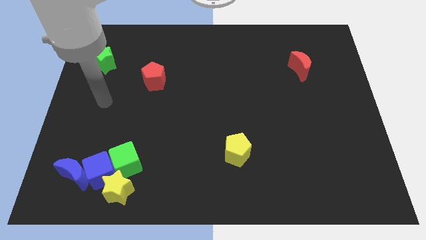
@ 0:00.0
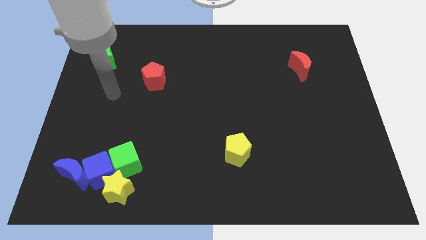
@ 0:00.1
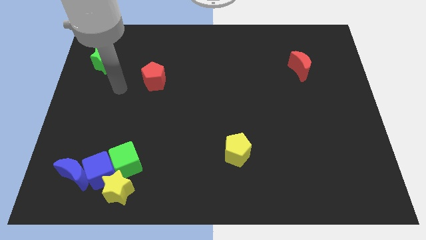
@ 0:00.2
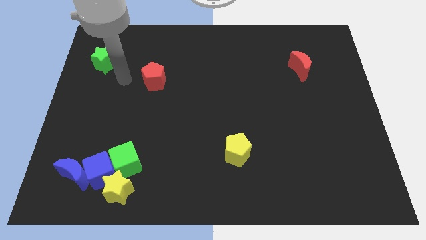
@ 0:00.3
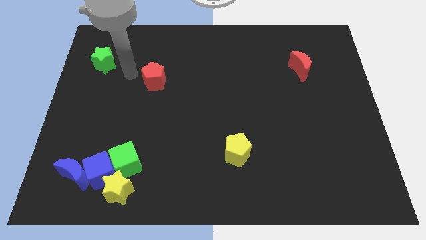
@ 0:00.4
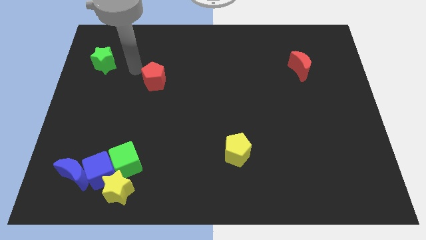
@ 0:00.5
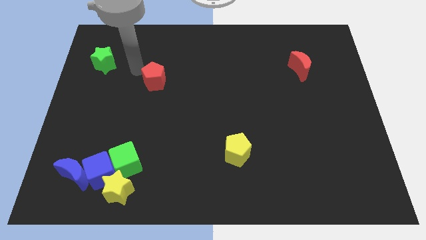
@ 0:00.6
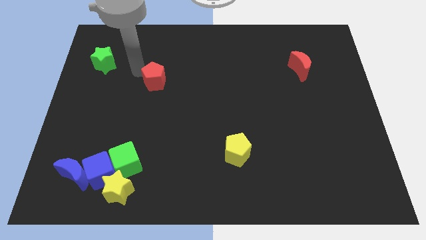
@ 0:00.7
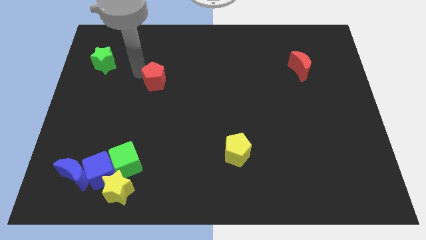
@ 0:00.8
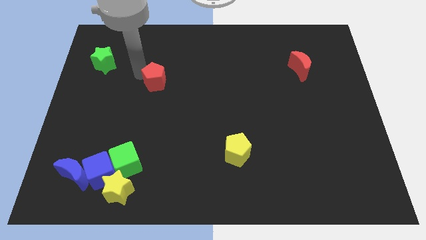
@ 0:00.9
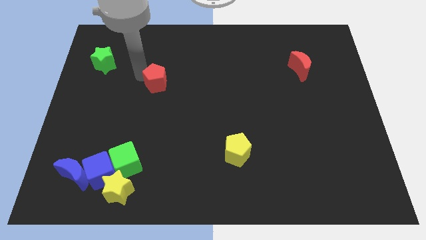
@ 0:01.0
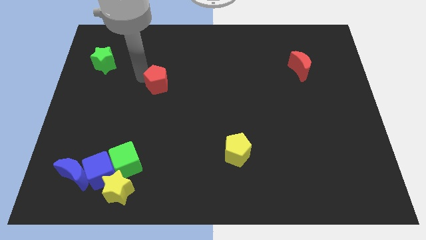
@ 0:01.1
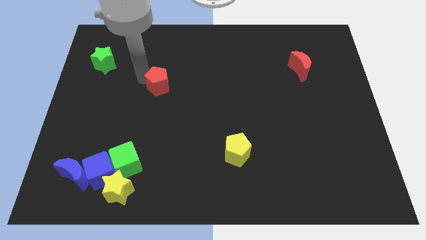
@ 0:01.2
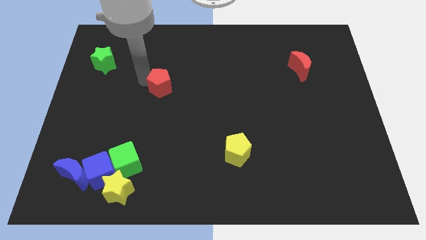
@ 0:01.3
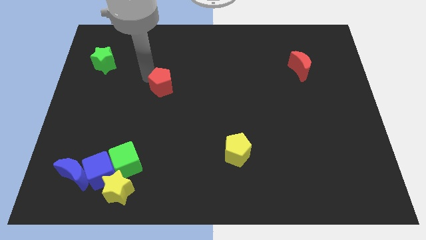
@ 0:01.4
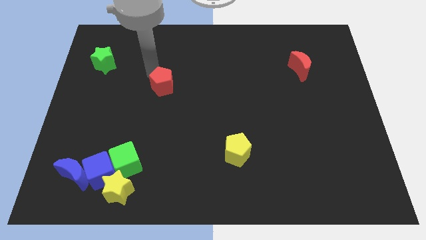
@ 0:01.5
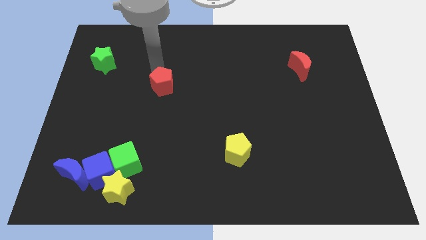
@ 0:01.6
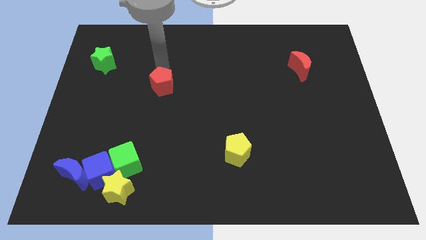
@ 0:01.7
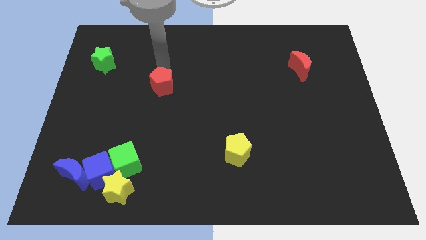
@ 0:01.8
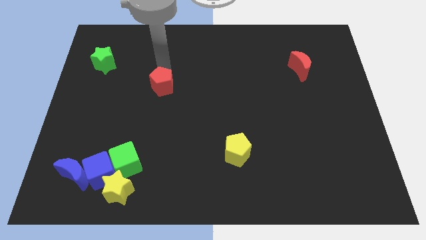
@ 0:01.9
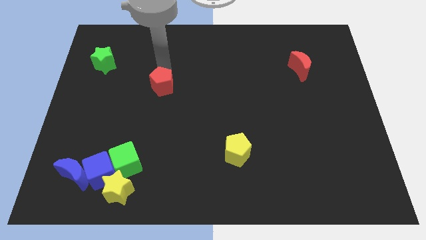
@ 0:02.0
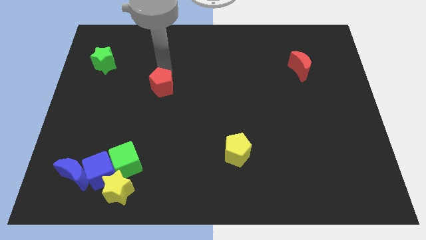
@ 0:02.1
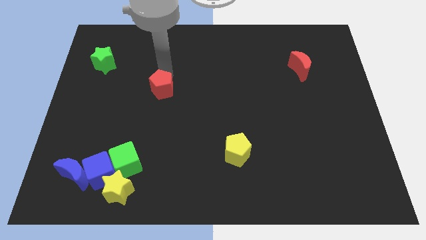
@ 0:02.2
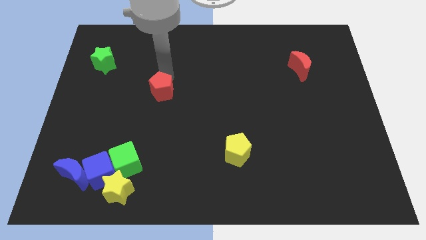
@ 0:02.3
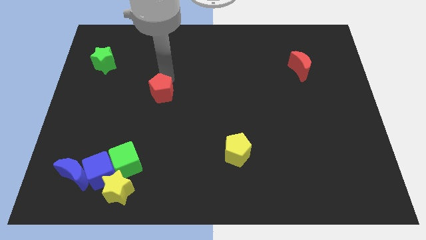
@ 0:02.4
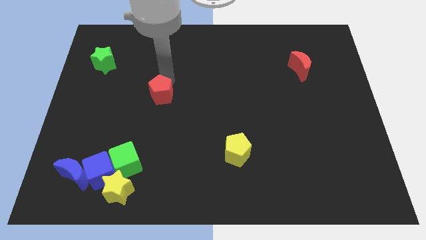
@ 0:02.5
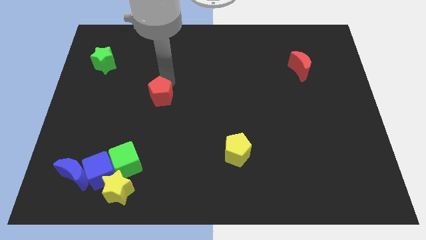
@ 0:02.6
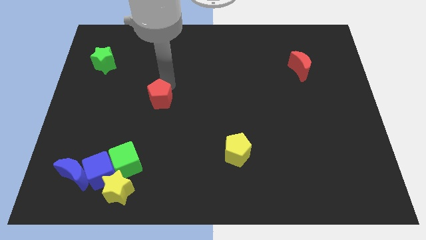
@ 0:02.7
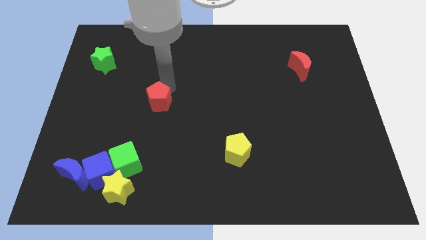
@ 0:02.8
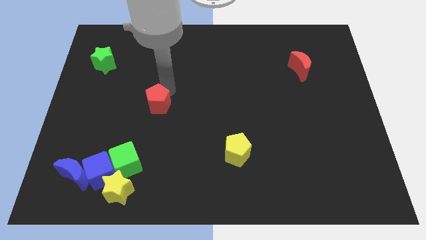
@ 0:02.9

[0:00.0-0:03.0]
move the red pentagon somewhat down

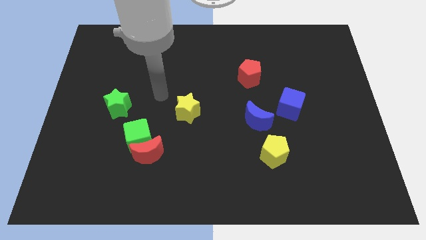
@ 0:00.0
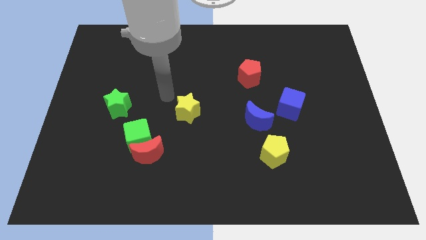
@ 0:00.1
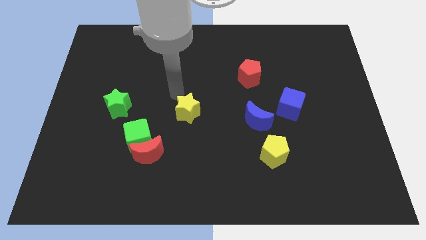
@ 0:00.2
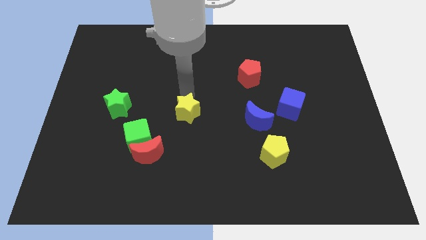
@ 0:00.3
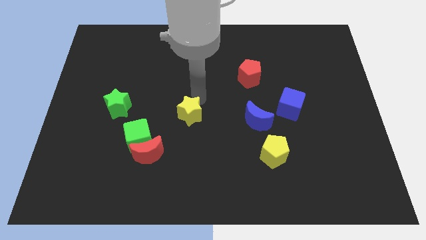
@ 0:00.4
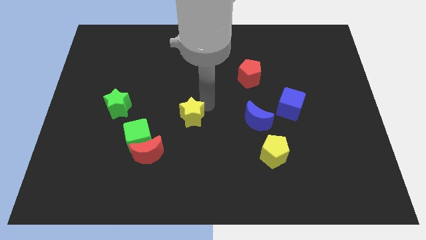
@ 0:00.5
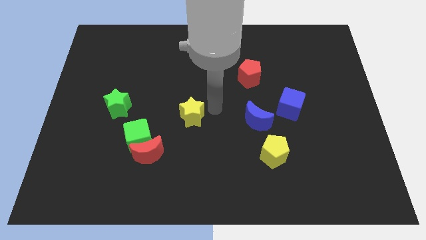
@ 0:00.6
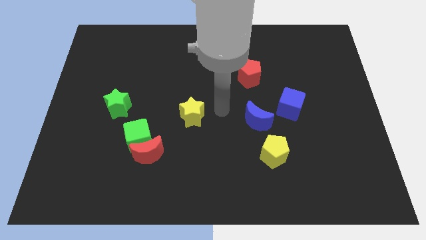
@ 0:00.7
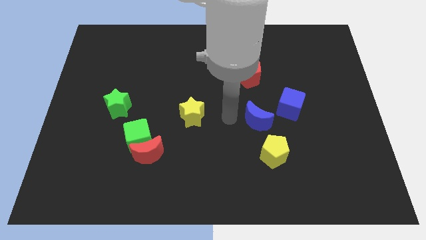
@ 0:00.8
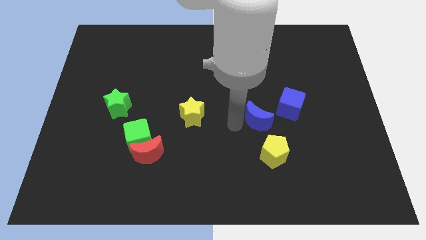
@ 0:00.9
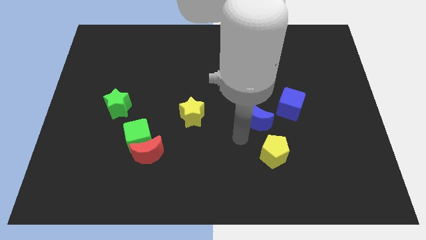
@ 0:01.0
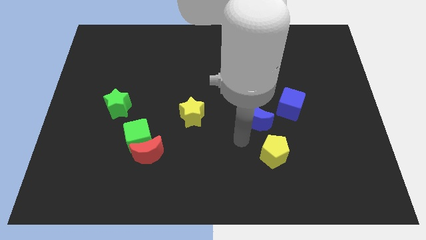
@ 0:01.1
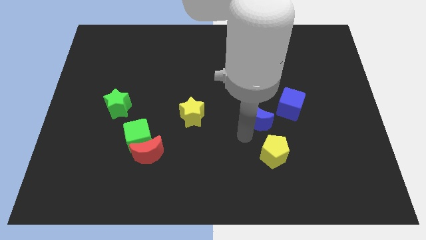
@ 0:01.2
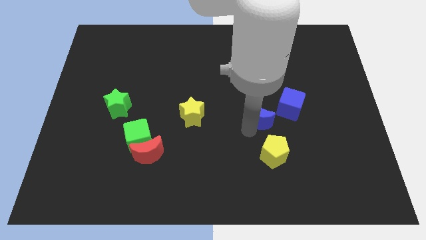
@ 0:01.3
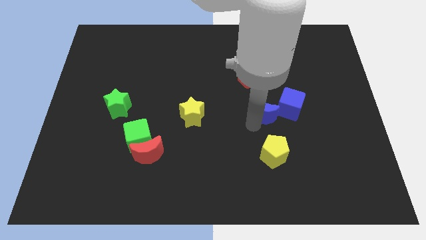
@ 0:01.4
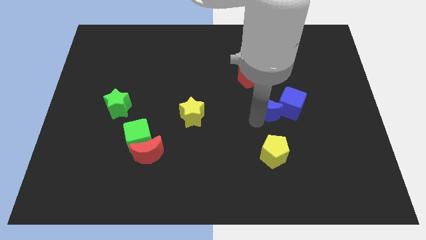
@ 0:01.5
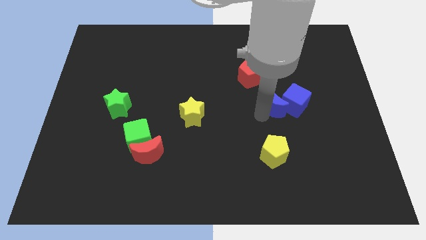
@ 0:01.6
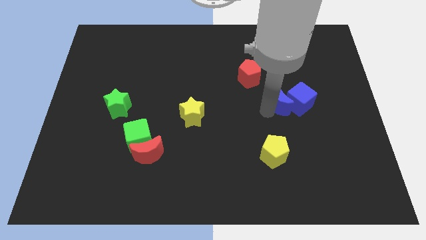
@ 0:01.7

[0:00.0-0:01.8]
slightly move the blue moon upwards and right diagonally

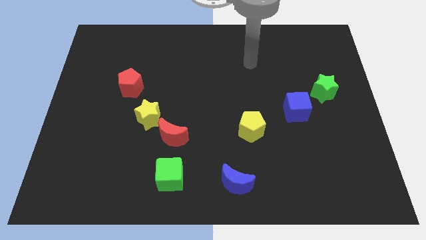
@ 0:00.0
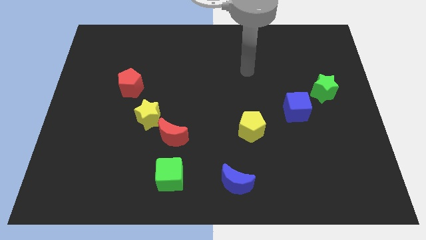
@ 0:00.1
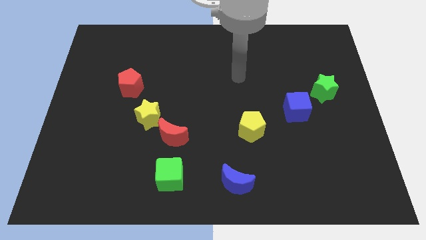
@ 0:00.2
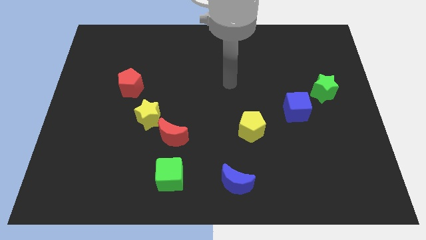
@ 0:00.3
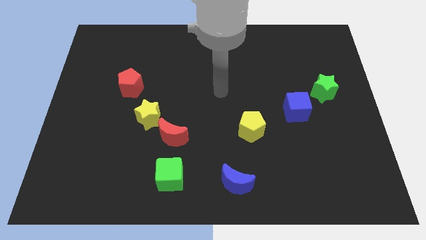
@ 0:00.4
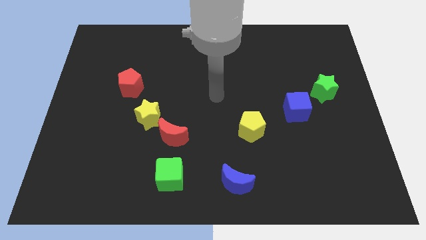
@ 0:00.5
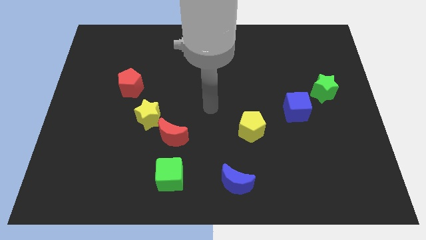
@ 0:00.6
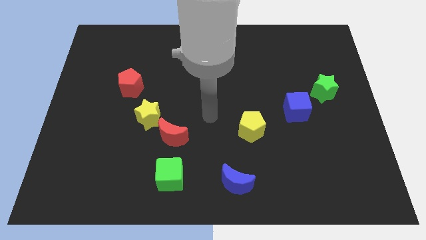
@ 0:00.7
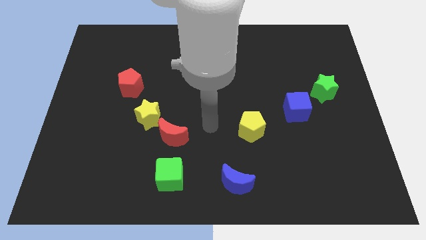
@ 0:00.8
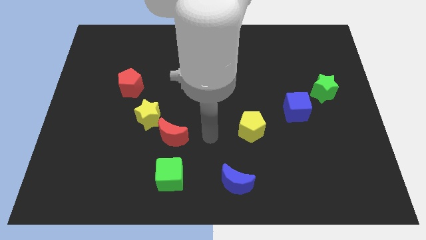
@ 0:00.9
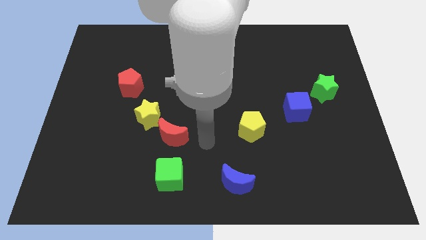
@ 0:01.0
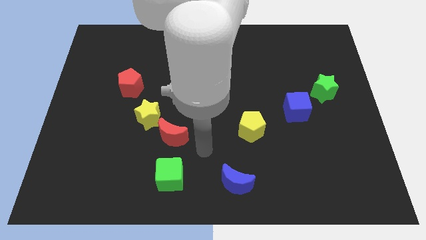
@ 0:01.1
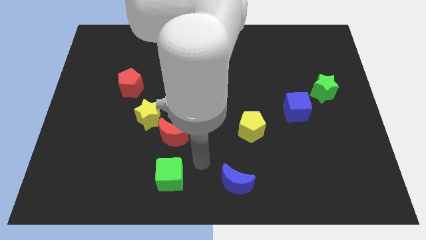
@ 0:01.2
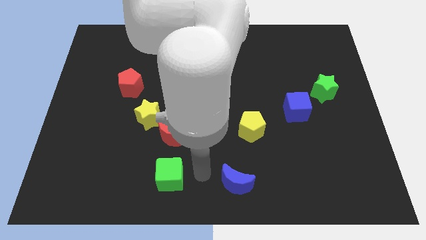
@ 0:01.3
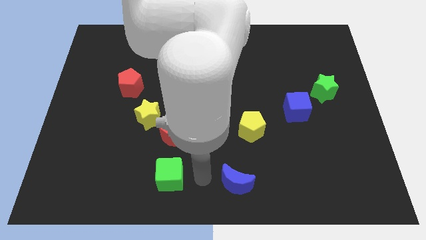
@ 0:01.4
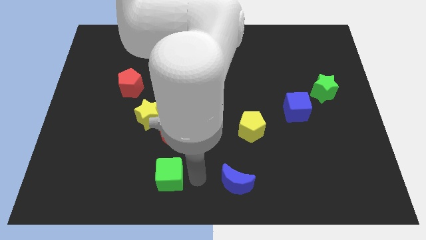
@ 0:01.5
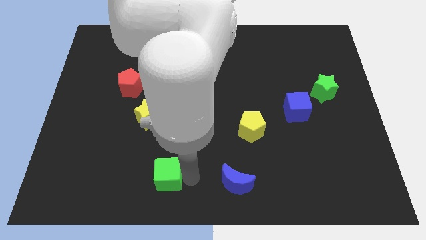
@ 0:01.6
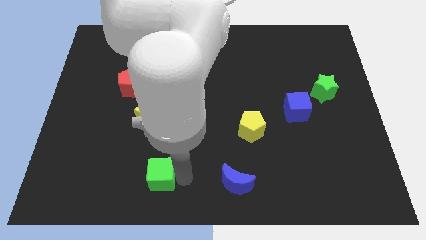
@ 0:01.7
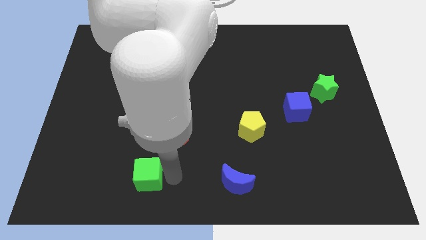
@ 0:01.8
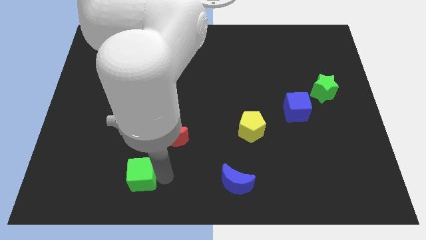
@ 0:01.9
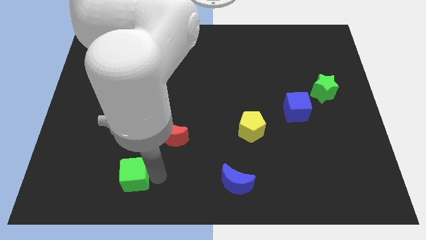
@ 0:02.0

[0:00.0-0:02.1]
slide the green cube a little left

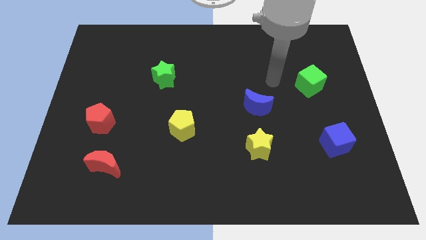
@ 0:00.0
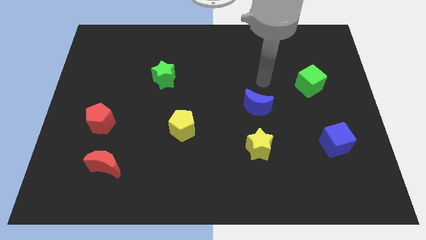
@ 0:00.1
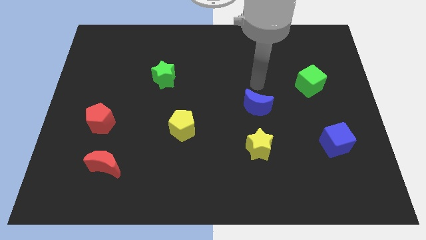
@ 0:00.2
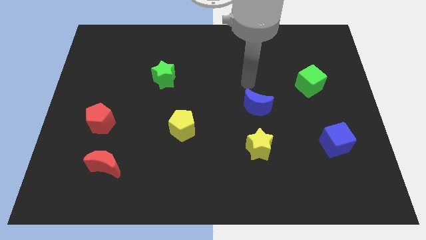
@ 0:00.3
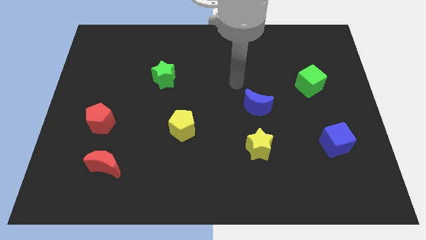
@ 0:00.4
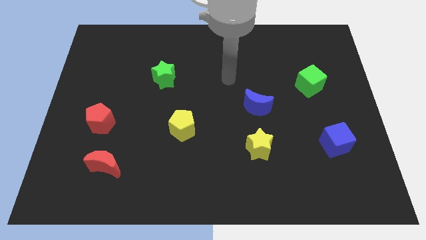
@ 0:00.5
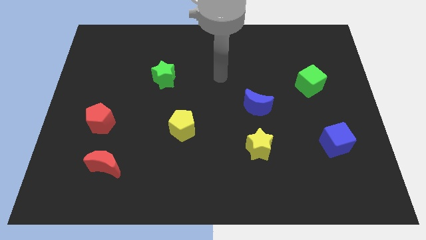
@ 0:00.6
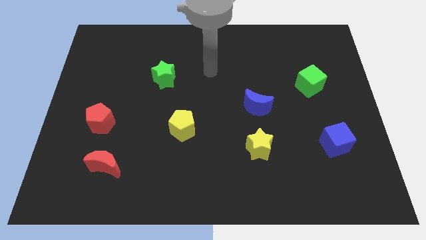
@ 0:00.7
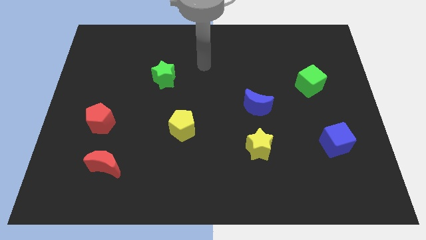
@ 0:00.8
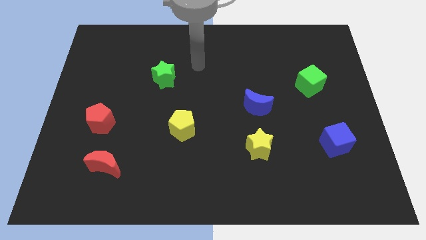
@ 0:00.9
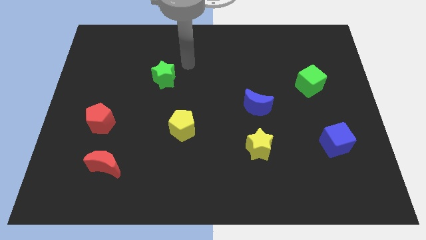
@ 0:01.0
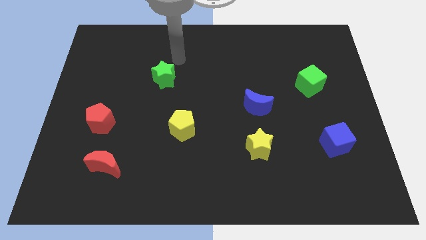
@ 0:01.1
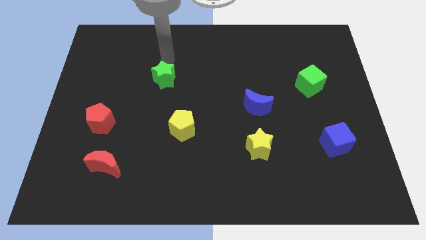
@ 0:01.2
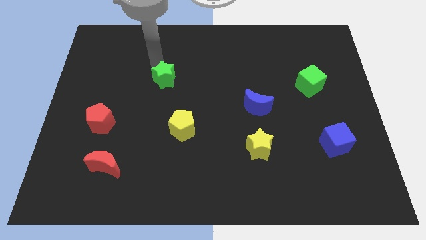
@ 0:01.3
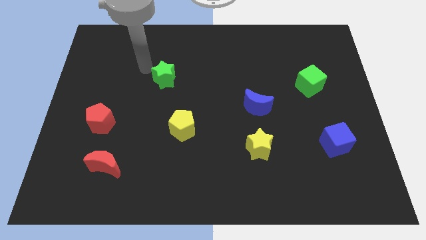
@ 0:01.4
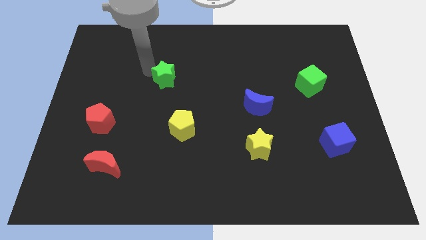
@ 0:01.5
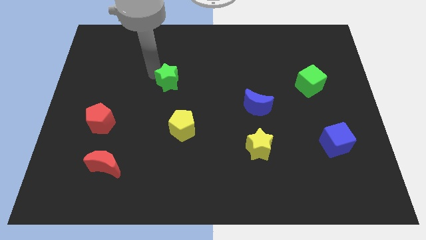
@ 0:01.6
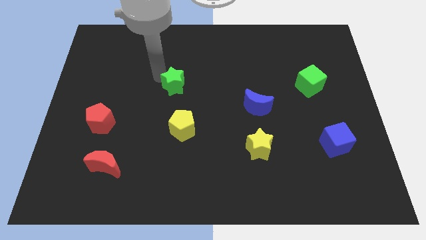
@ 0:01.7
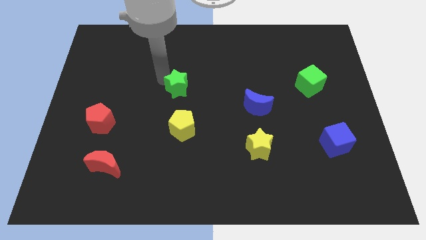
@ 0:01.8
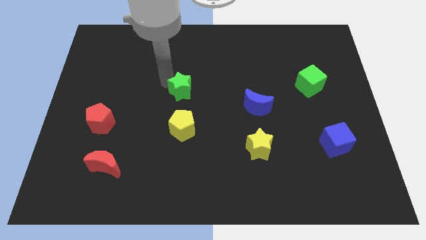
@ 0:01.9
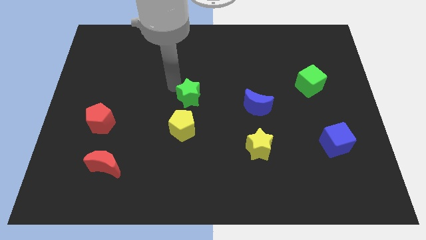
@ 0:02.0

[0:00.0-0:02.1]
move the green star a bit down and right diagonally
